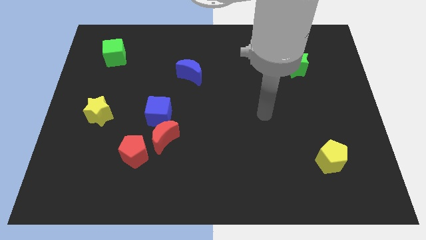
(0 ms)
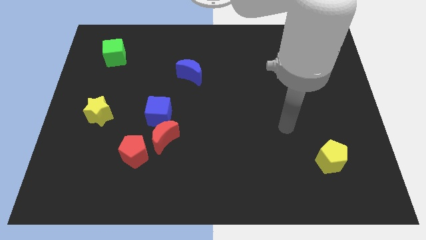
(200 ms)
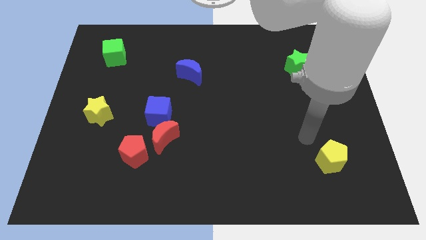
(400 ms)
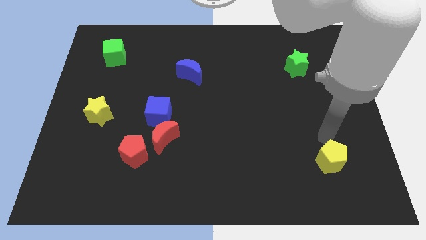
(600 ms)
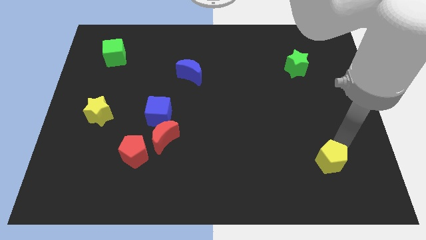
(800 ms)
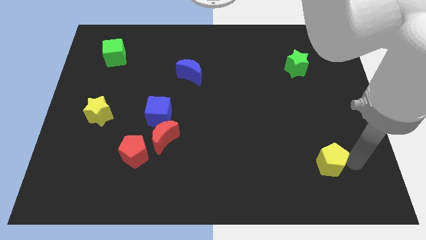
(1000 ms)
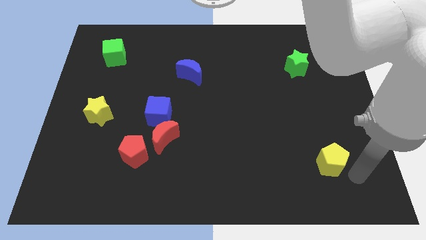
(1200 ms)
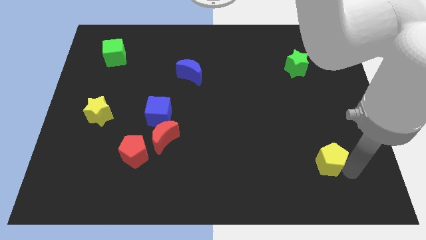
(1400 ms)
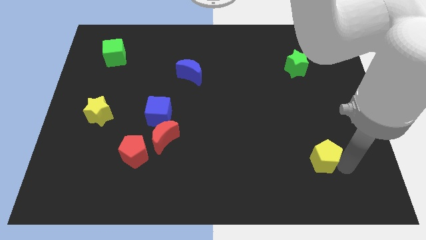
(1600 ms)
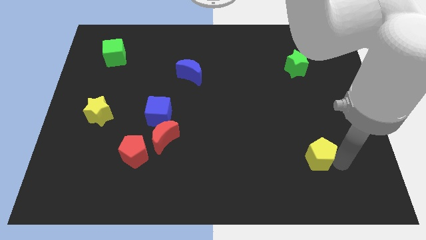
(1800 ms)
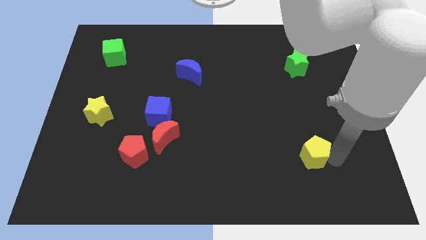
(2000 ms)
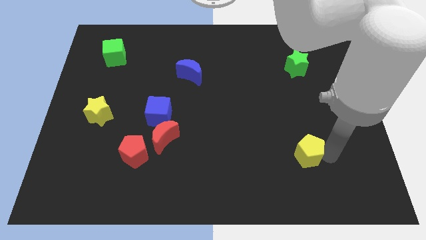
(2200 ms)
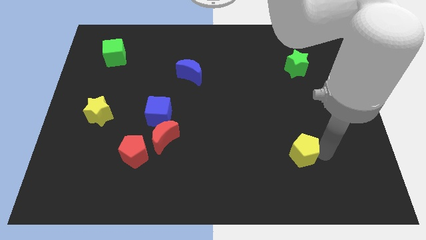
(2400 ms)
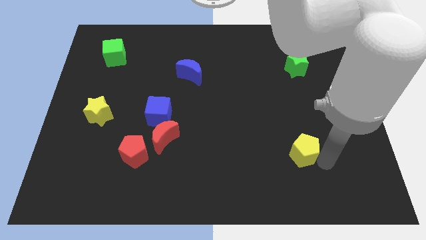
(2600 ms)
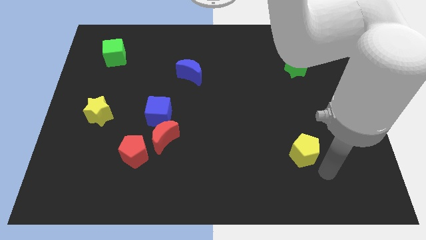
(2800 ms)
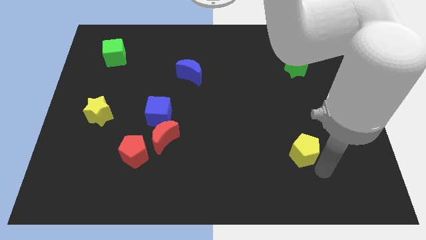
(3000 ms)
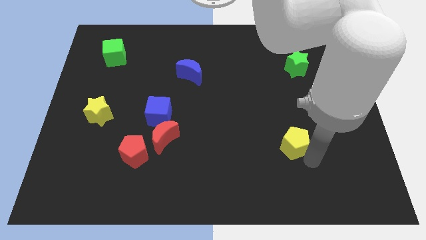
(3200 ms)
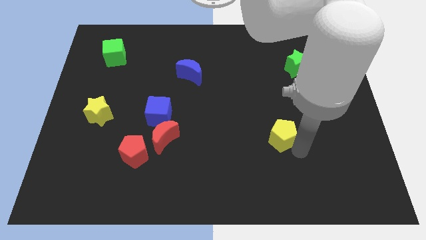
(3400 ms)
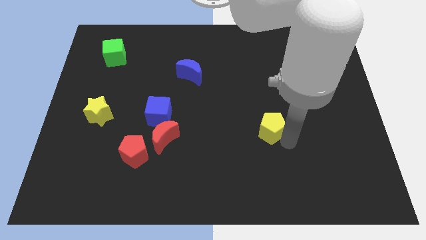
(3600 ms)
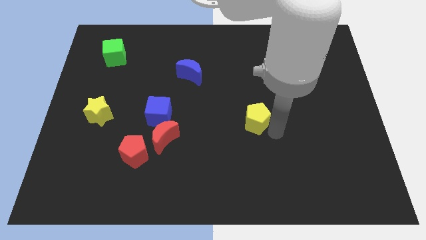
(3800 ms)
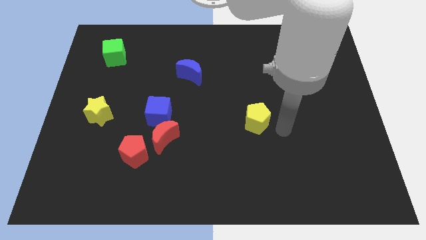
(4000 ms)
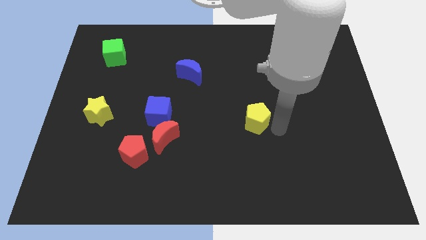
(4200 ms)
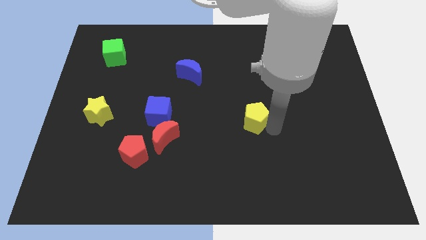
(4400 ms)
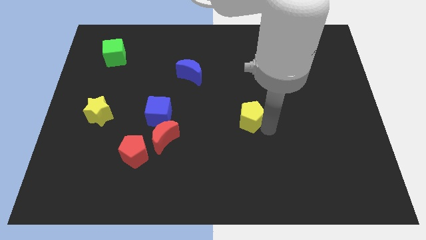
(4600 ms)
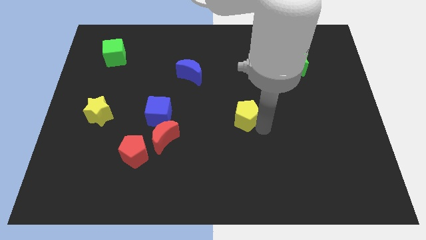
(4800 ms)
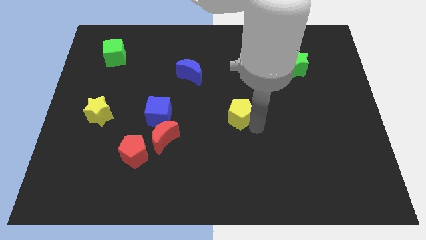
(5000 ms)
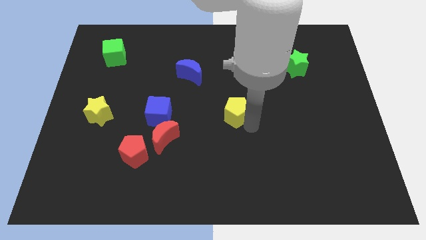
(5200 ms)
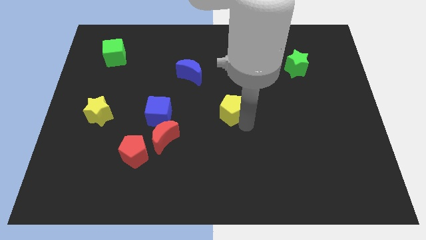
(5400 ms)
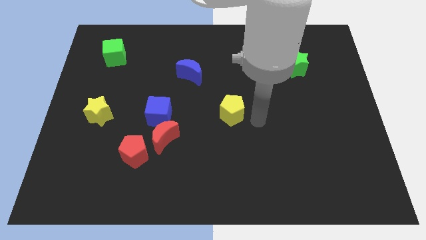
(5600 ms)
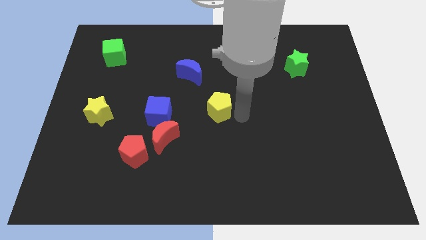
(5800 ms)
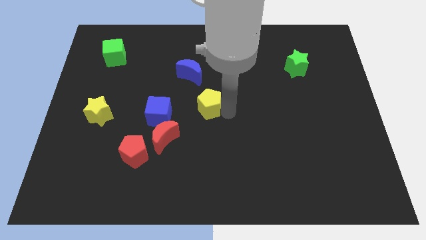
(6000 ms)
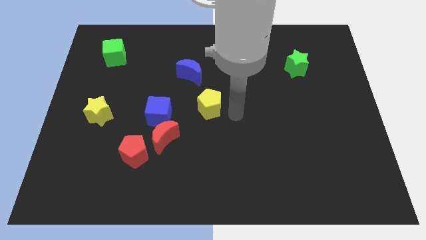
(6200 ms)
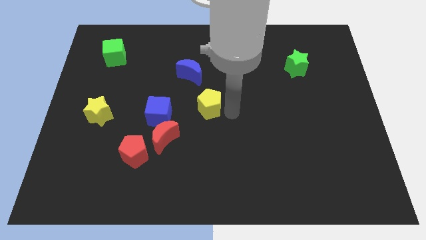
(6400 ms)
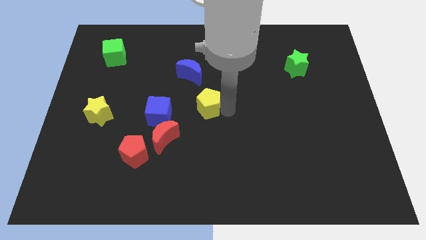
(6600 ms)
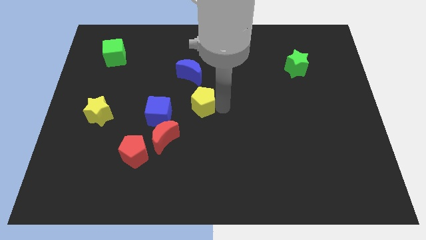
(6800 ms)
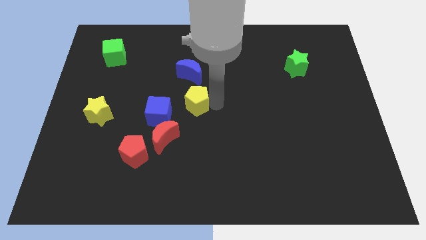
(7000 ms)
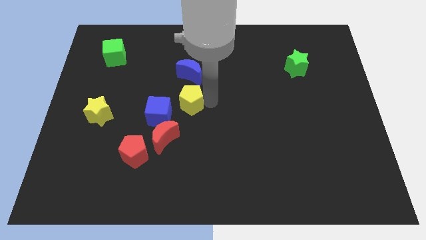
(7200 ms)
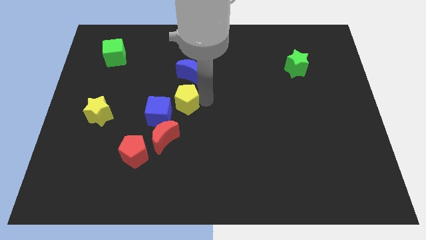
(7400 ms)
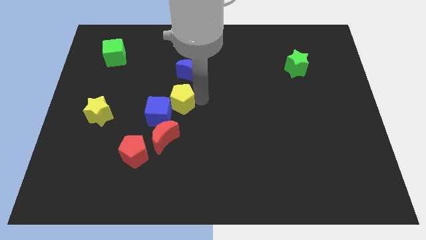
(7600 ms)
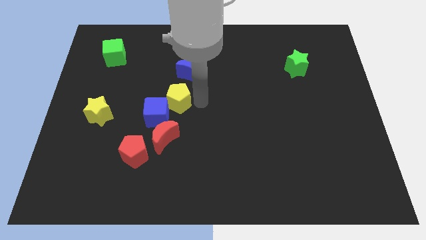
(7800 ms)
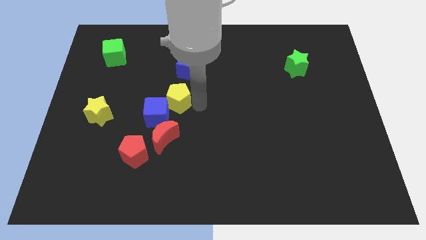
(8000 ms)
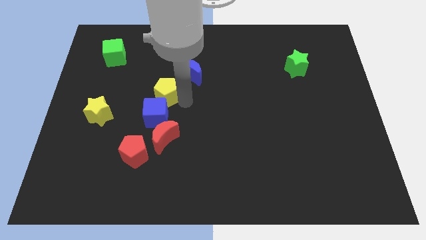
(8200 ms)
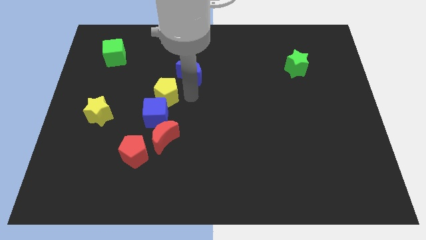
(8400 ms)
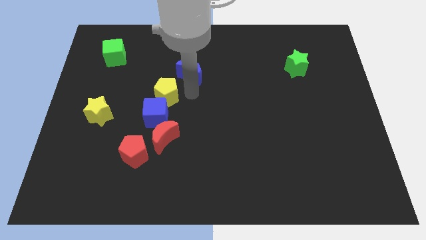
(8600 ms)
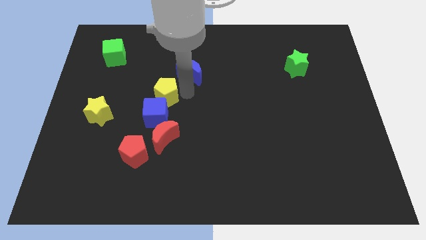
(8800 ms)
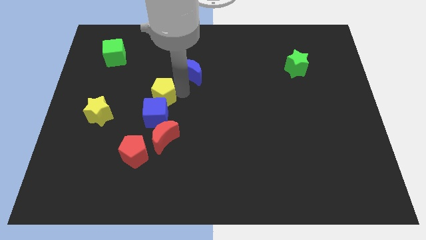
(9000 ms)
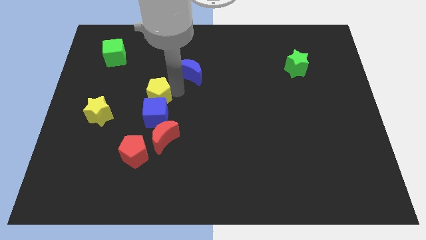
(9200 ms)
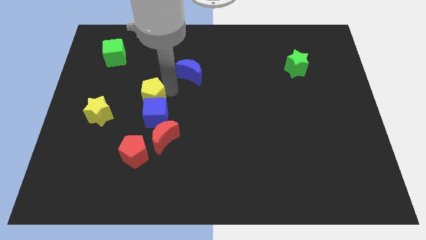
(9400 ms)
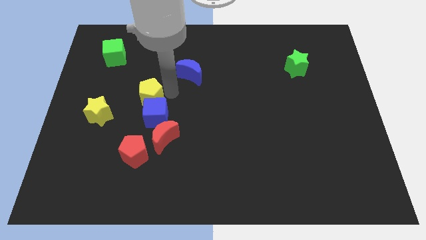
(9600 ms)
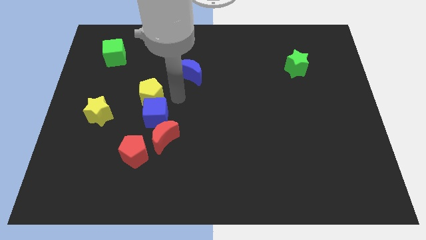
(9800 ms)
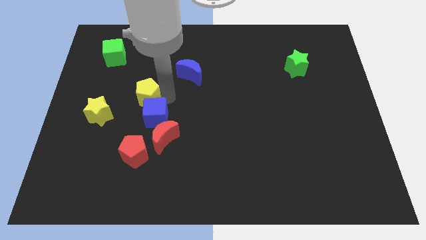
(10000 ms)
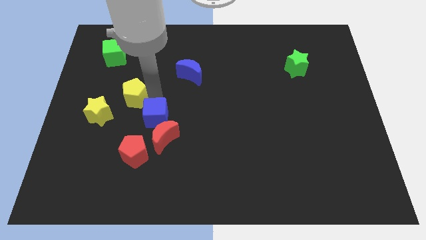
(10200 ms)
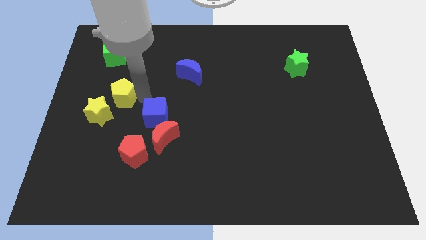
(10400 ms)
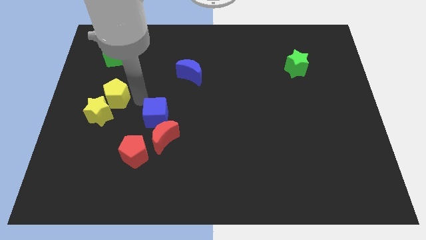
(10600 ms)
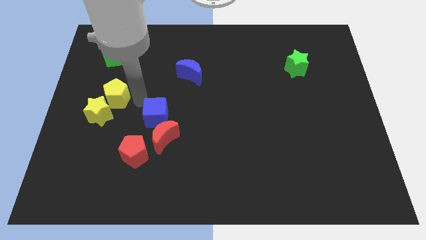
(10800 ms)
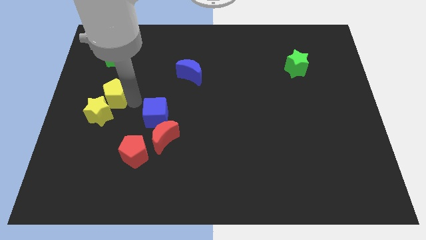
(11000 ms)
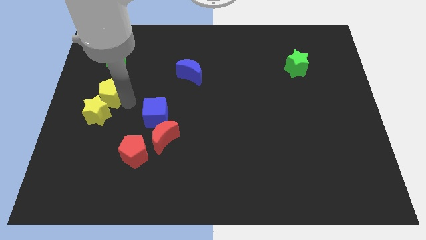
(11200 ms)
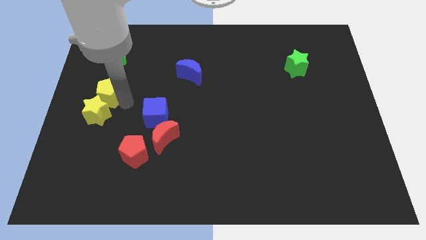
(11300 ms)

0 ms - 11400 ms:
move the yellow pentagon to the left side
